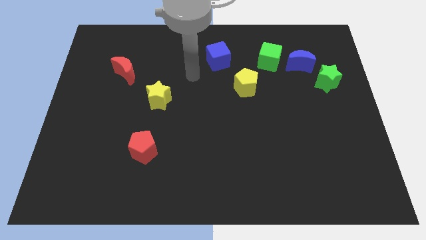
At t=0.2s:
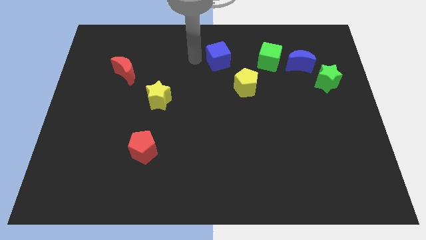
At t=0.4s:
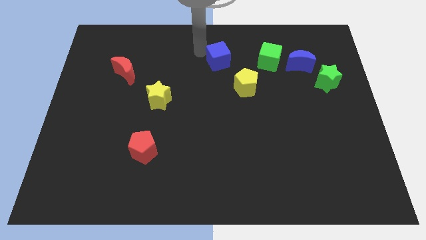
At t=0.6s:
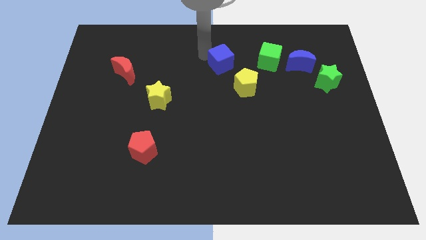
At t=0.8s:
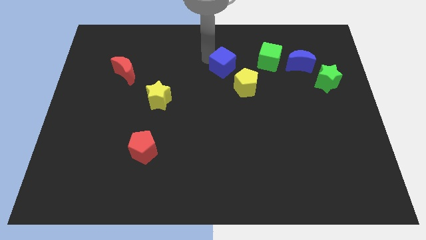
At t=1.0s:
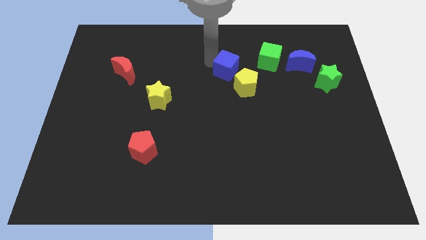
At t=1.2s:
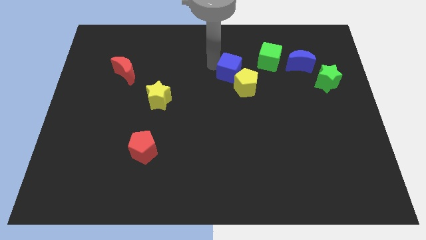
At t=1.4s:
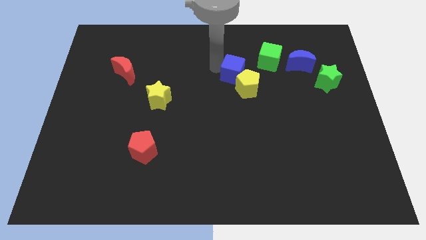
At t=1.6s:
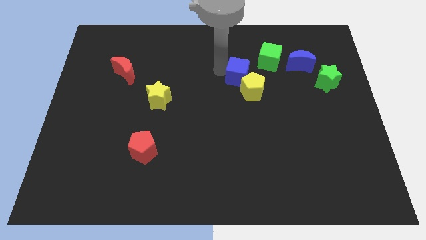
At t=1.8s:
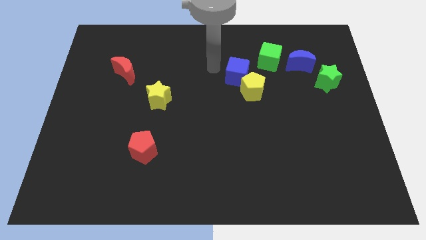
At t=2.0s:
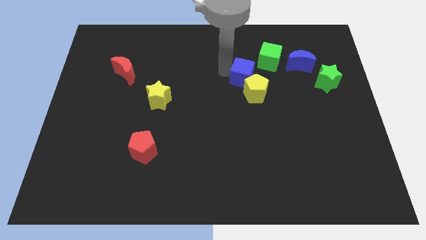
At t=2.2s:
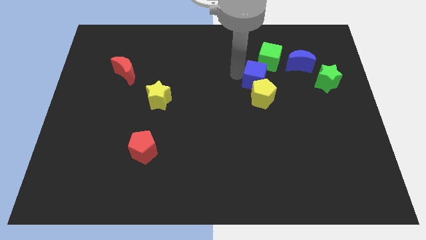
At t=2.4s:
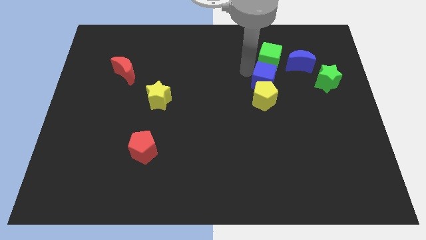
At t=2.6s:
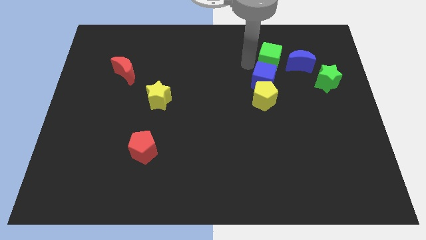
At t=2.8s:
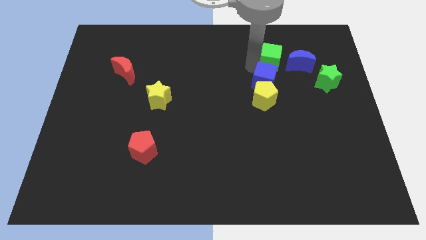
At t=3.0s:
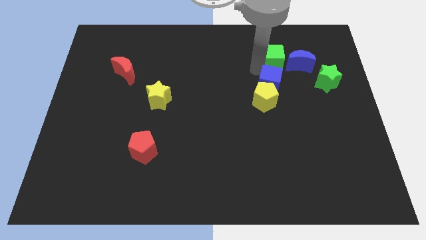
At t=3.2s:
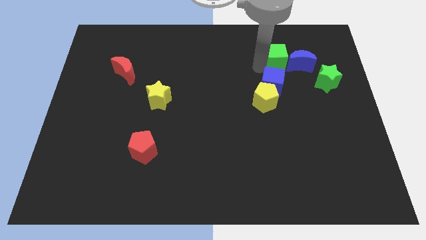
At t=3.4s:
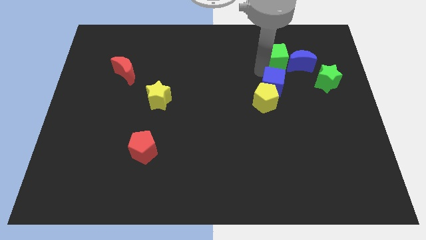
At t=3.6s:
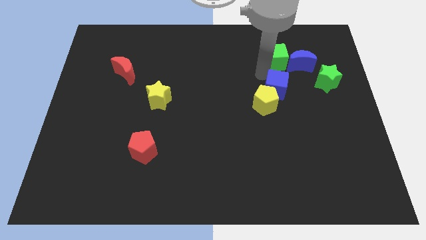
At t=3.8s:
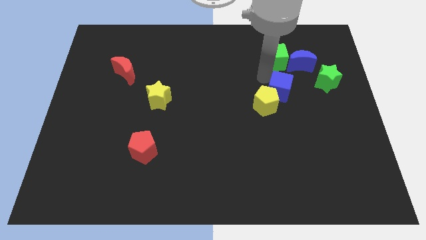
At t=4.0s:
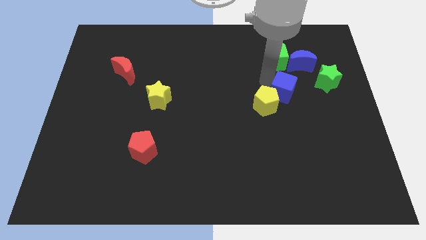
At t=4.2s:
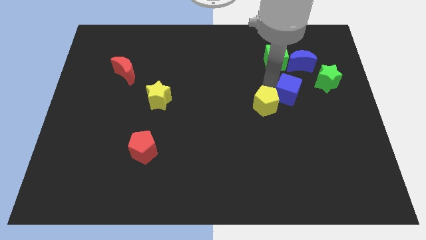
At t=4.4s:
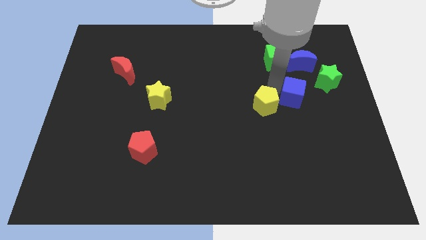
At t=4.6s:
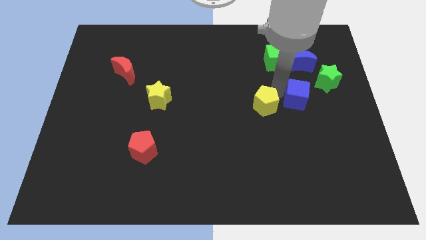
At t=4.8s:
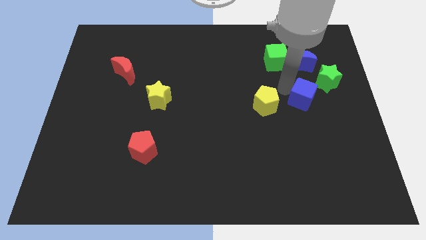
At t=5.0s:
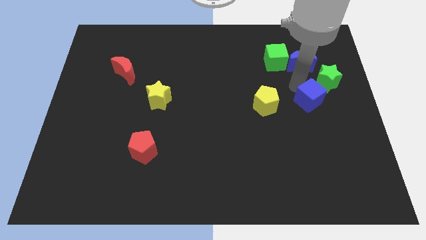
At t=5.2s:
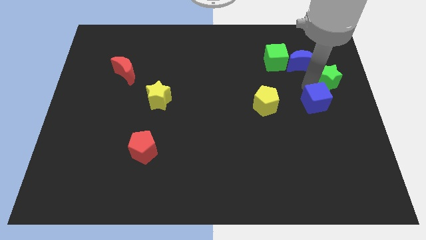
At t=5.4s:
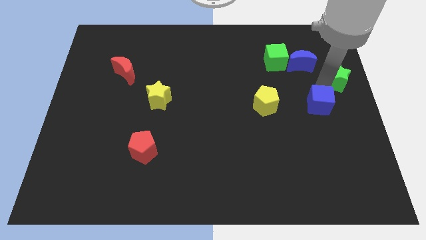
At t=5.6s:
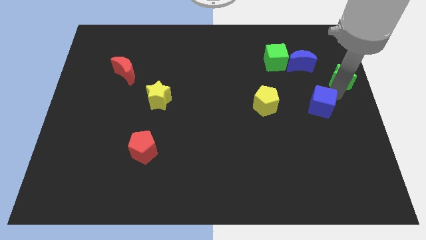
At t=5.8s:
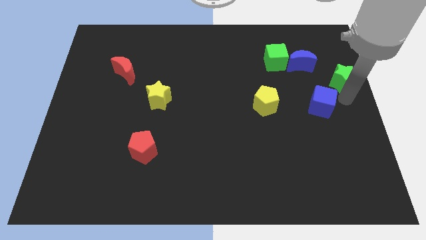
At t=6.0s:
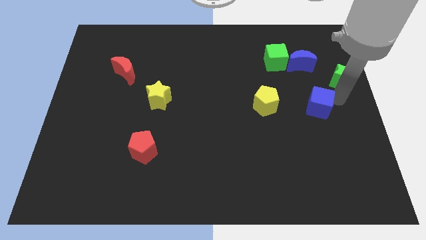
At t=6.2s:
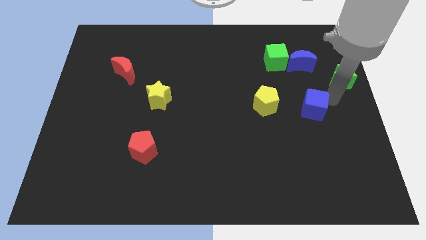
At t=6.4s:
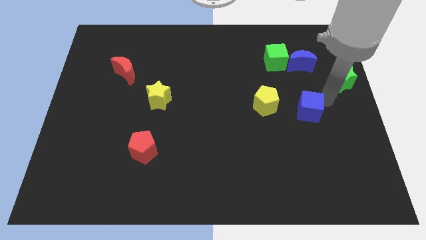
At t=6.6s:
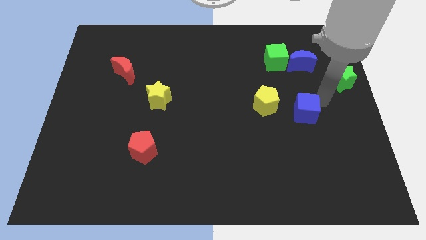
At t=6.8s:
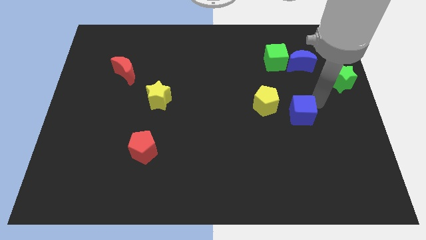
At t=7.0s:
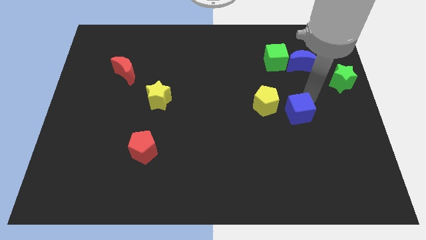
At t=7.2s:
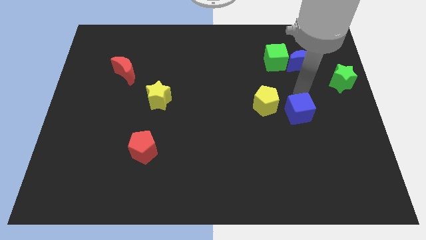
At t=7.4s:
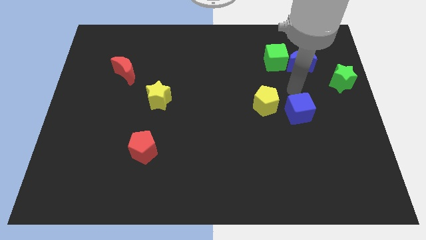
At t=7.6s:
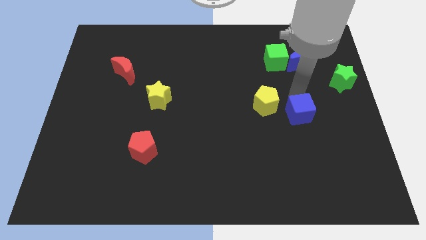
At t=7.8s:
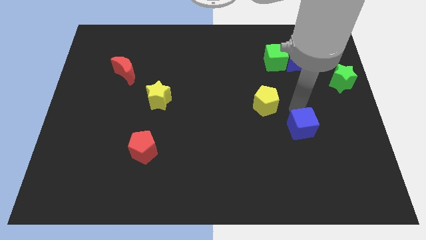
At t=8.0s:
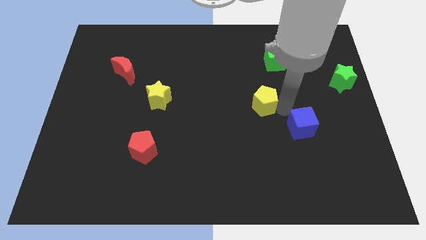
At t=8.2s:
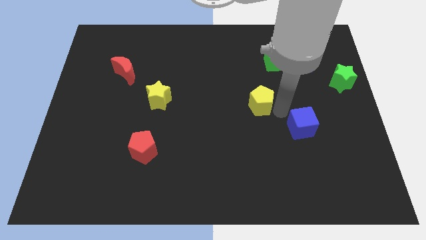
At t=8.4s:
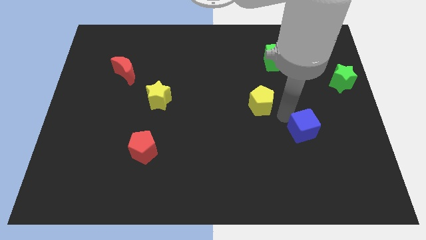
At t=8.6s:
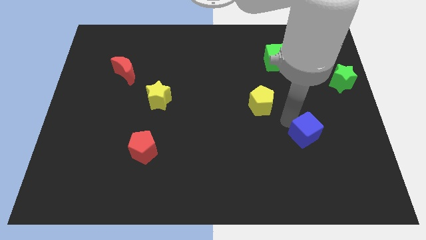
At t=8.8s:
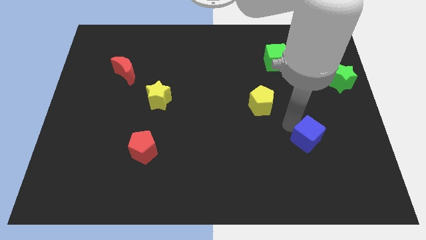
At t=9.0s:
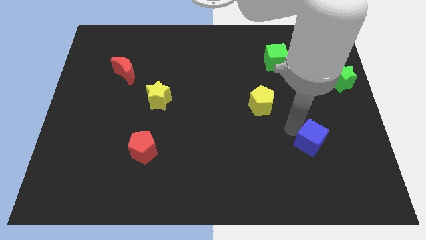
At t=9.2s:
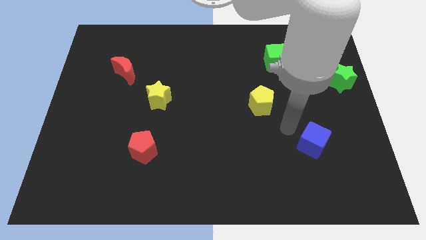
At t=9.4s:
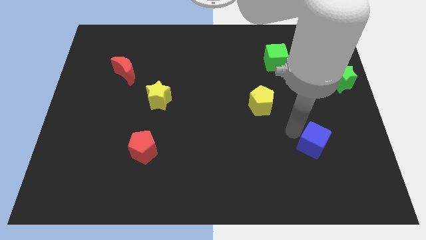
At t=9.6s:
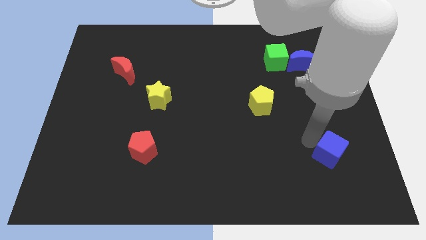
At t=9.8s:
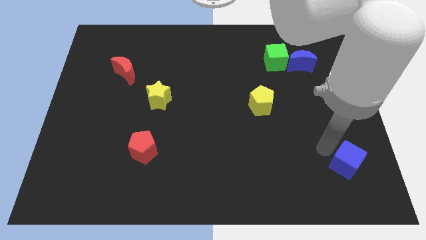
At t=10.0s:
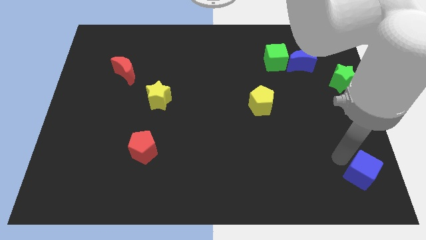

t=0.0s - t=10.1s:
slide the blue cube to the bottom right of the board

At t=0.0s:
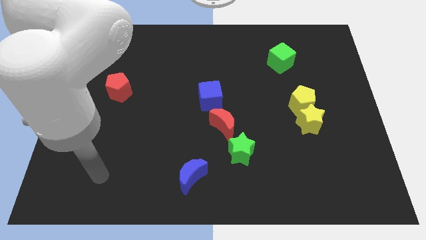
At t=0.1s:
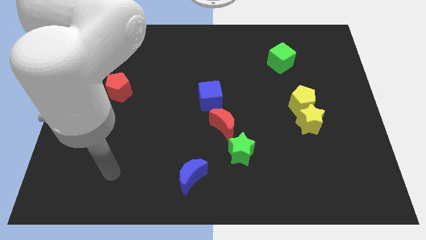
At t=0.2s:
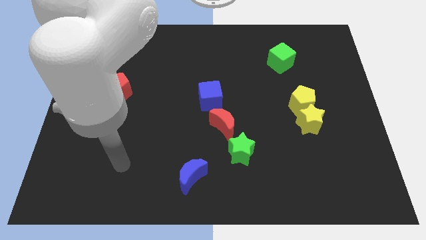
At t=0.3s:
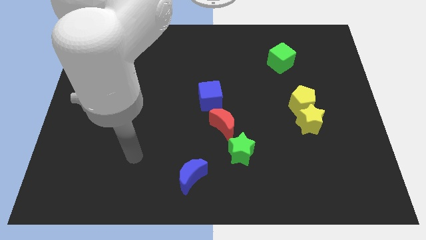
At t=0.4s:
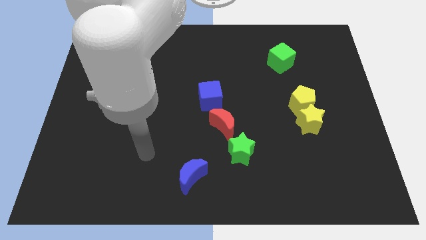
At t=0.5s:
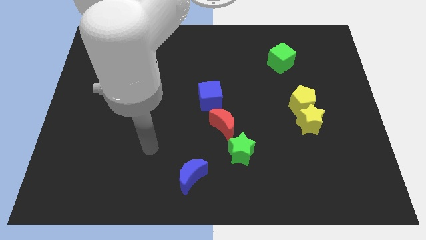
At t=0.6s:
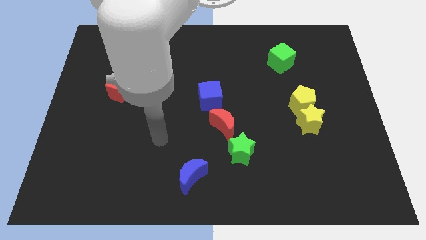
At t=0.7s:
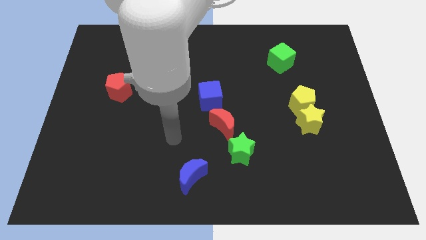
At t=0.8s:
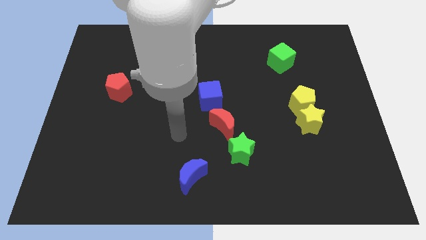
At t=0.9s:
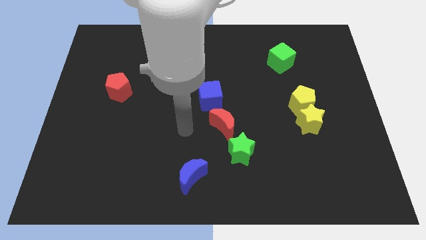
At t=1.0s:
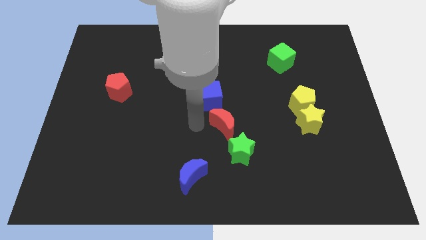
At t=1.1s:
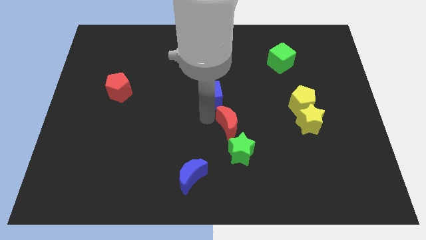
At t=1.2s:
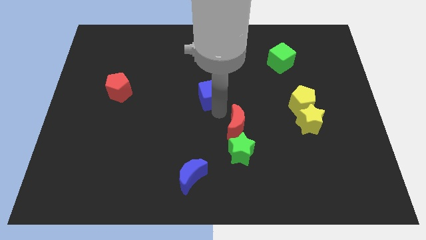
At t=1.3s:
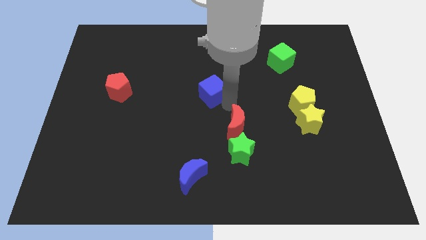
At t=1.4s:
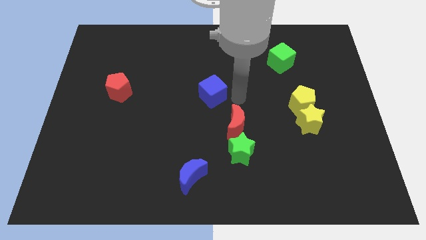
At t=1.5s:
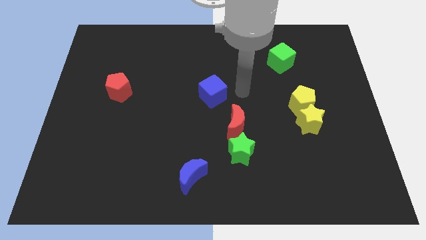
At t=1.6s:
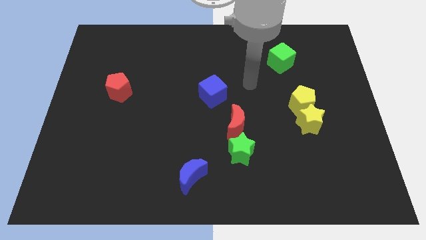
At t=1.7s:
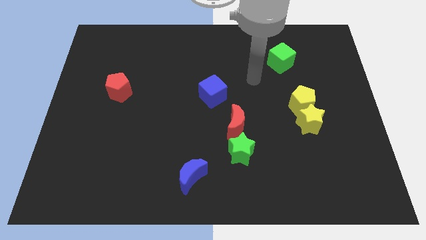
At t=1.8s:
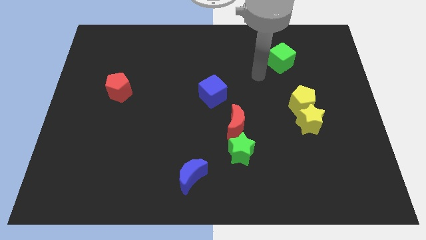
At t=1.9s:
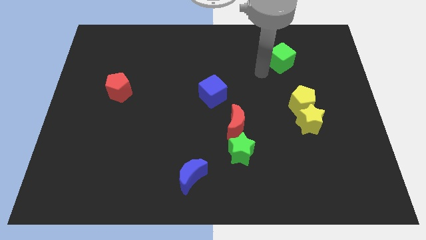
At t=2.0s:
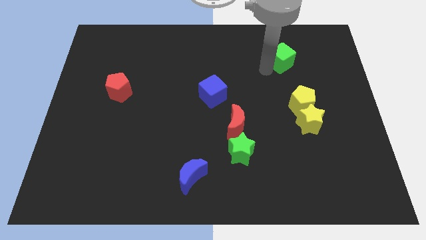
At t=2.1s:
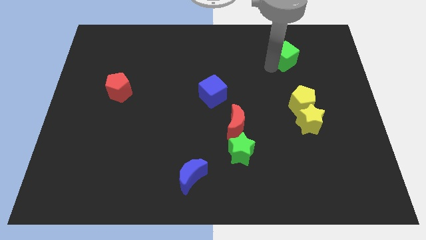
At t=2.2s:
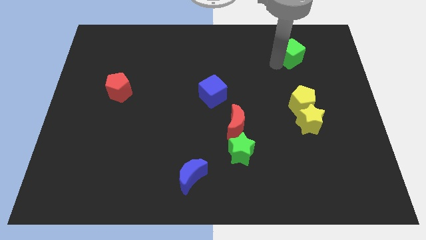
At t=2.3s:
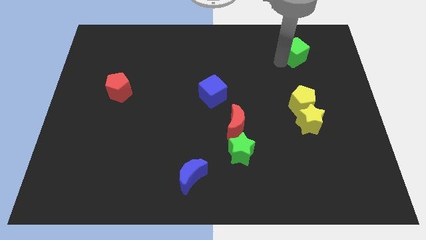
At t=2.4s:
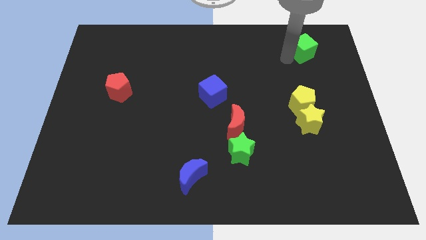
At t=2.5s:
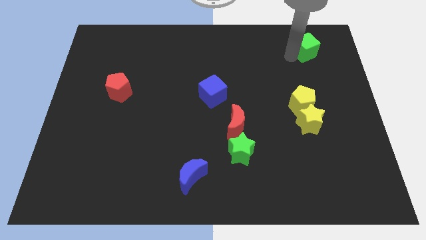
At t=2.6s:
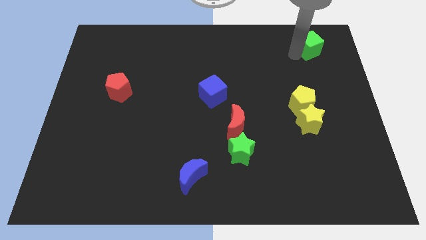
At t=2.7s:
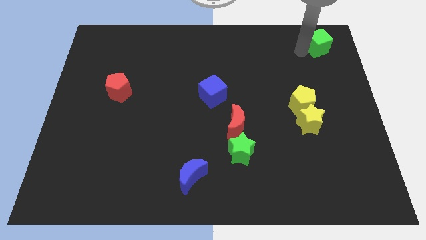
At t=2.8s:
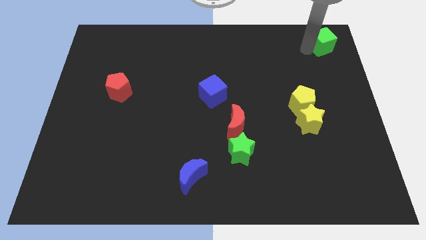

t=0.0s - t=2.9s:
slide the green cube to the top right of the board
